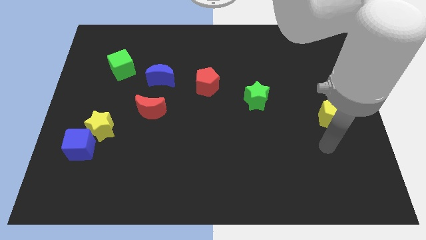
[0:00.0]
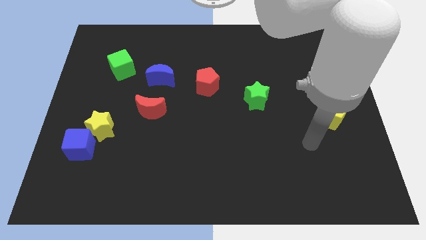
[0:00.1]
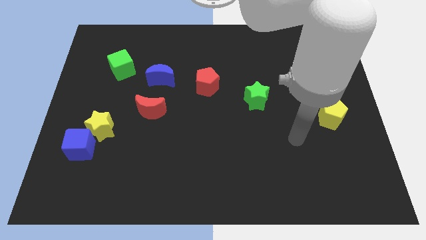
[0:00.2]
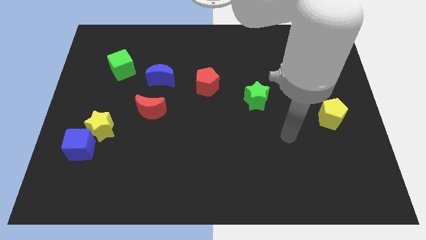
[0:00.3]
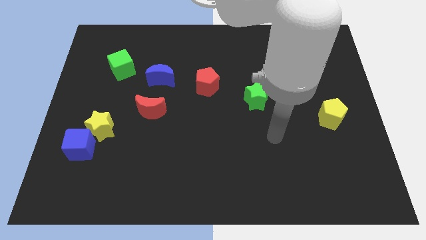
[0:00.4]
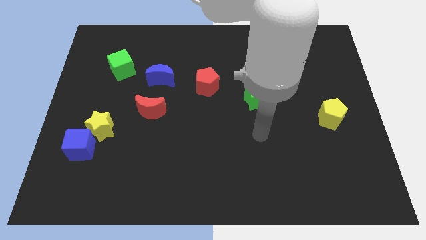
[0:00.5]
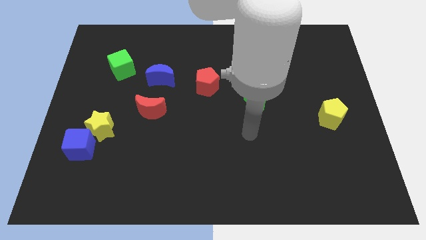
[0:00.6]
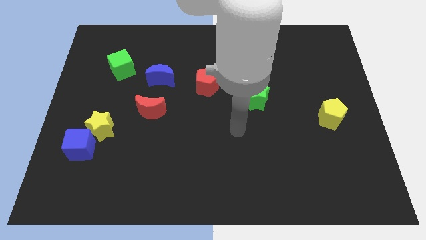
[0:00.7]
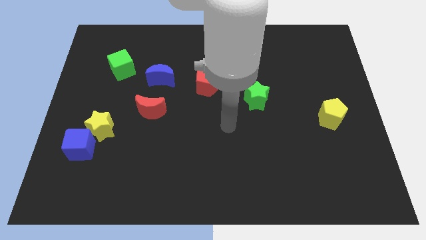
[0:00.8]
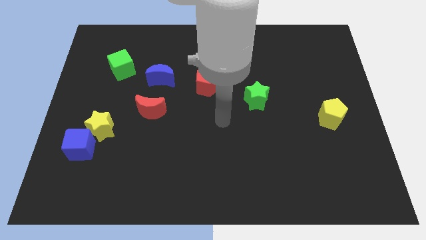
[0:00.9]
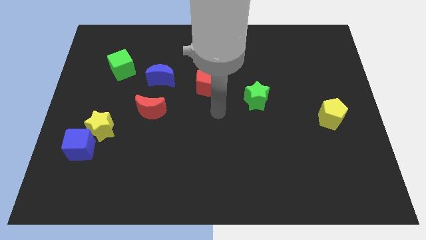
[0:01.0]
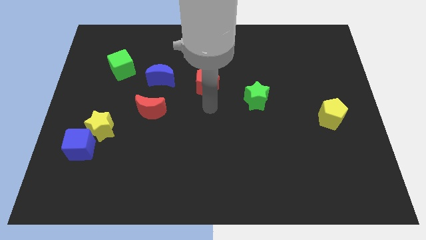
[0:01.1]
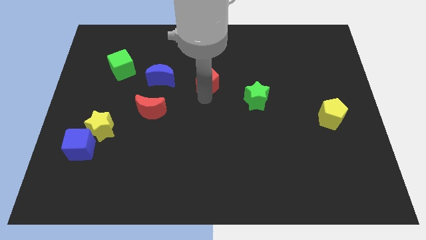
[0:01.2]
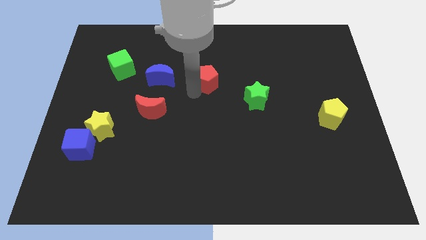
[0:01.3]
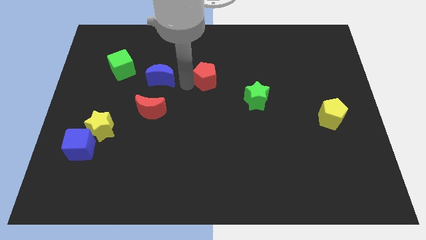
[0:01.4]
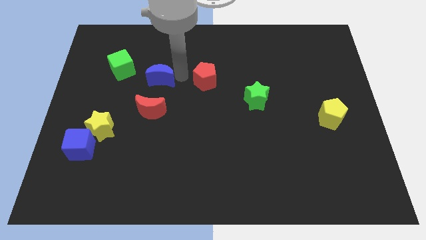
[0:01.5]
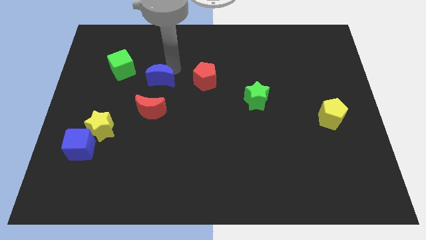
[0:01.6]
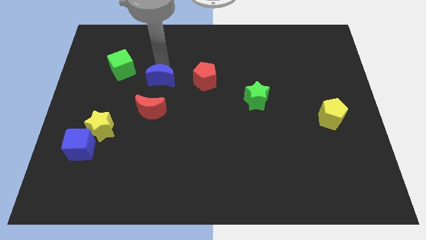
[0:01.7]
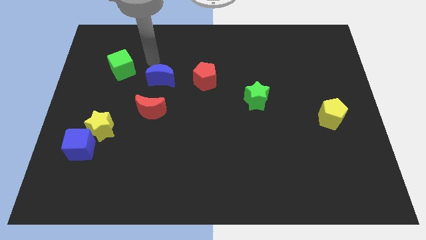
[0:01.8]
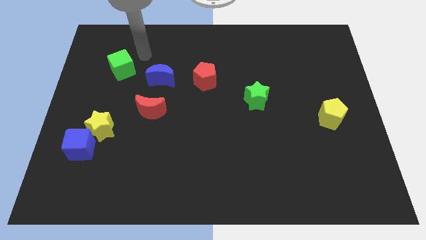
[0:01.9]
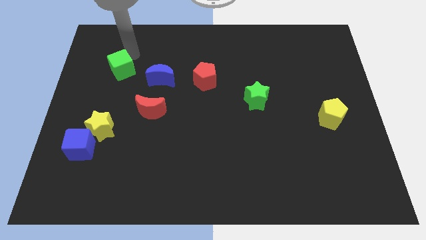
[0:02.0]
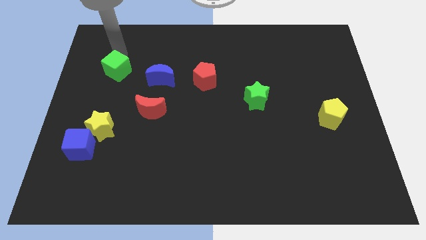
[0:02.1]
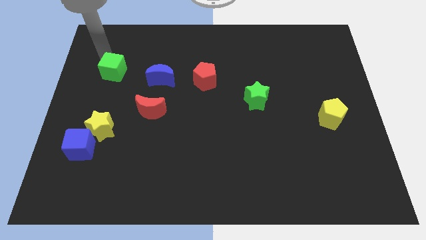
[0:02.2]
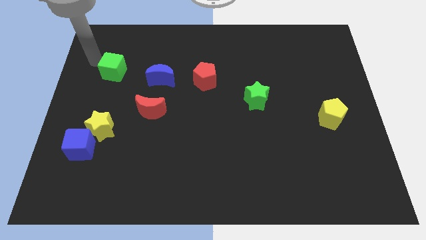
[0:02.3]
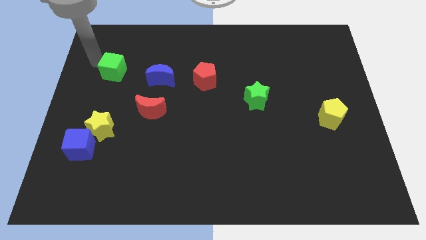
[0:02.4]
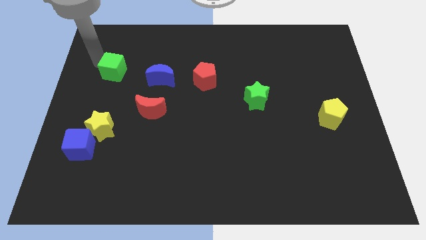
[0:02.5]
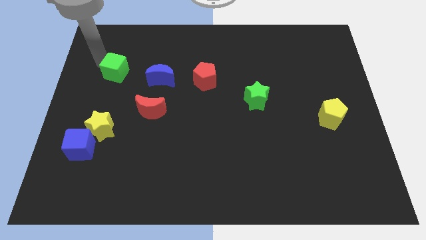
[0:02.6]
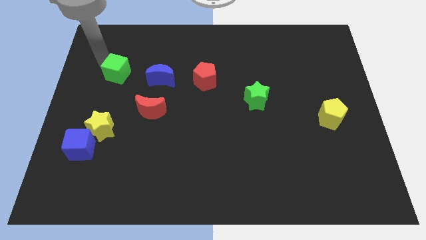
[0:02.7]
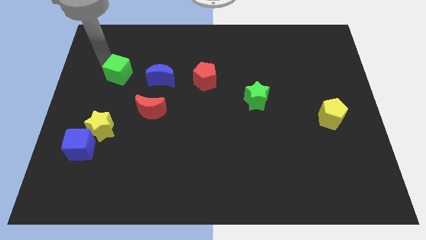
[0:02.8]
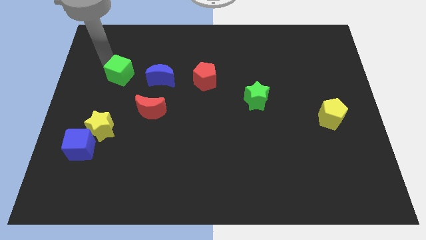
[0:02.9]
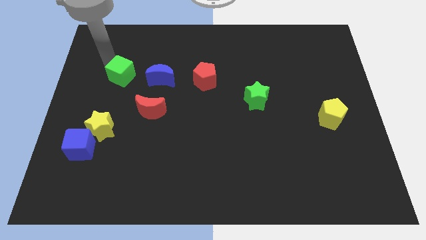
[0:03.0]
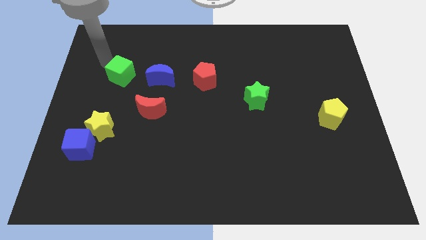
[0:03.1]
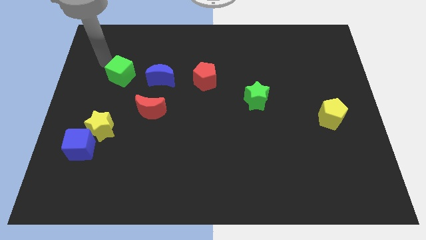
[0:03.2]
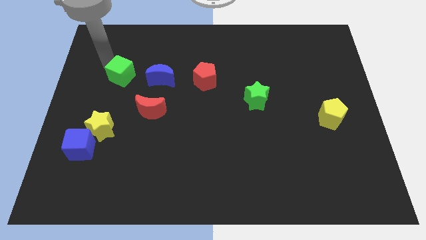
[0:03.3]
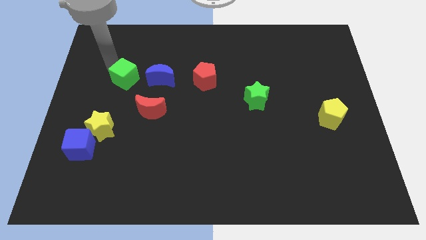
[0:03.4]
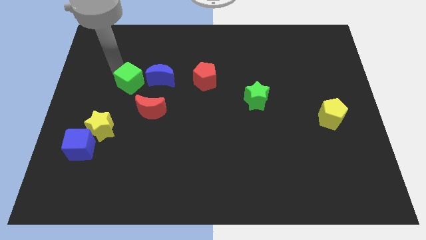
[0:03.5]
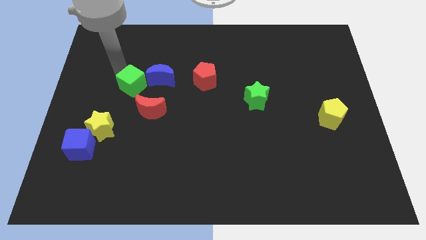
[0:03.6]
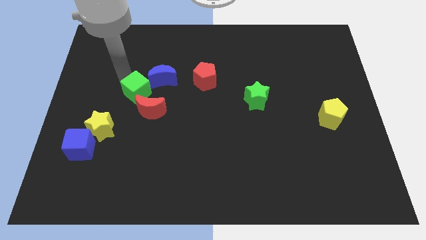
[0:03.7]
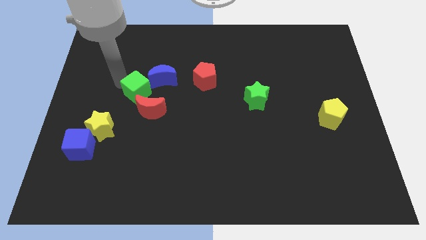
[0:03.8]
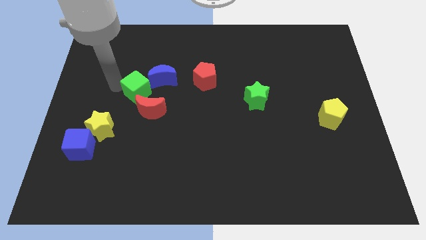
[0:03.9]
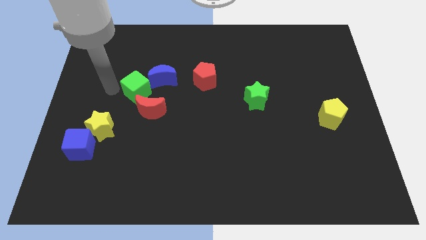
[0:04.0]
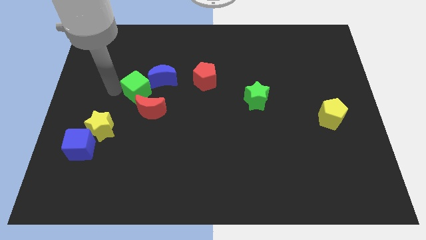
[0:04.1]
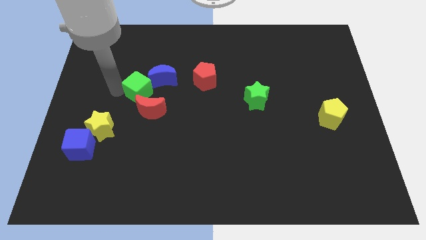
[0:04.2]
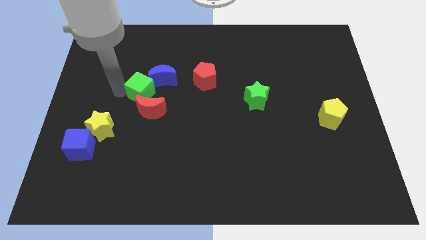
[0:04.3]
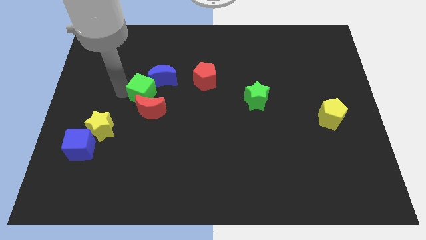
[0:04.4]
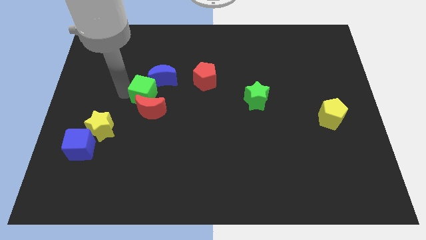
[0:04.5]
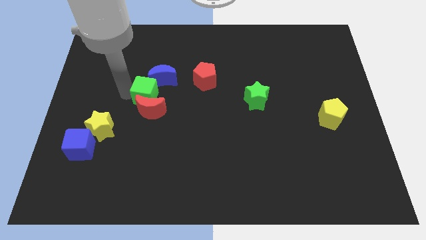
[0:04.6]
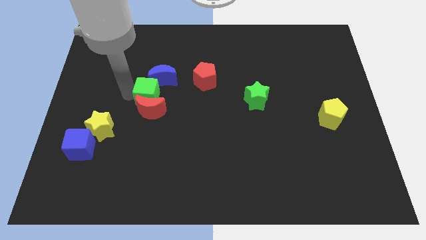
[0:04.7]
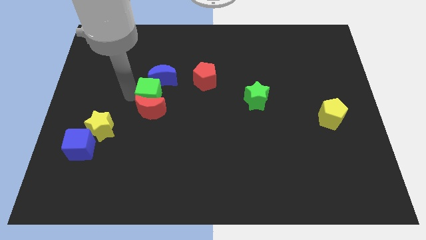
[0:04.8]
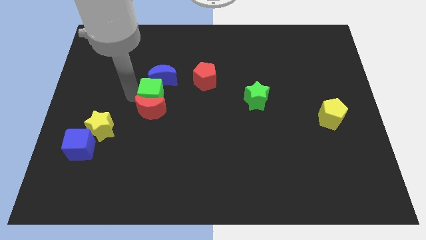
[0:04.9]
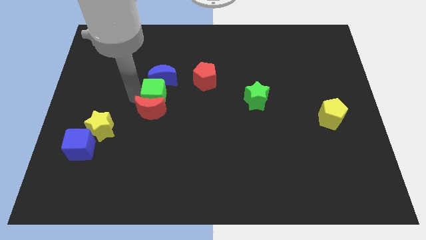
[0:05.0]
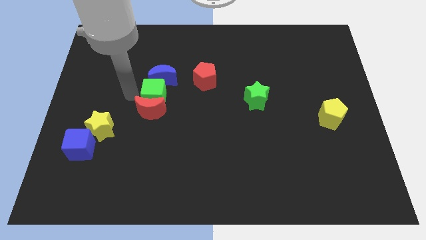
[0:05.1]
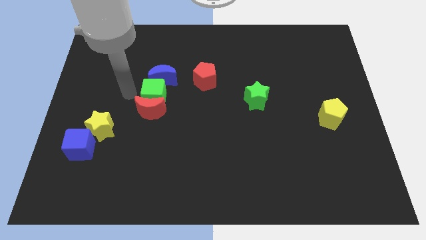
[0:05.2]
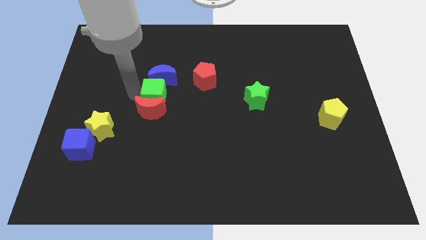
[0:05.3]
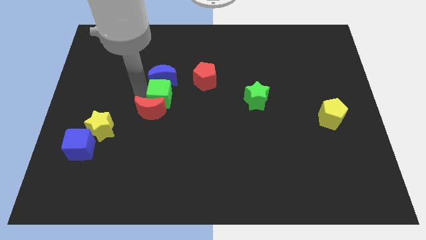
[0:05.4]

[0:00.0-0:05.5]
push the green cube to the center of the board
